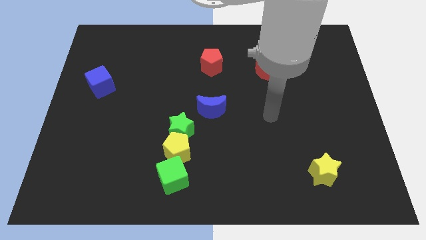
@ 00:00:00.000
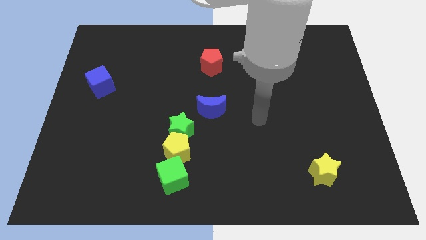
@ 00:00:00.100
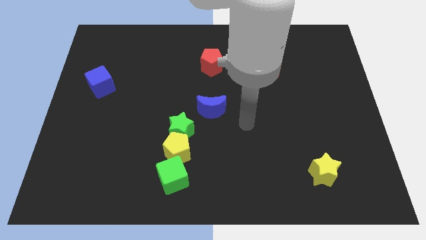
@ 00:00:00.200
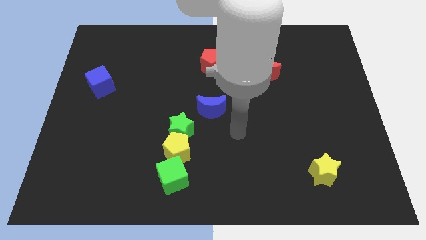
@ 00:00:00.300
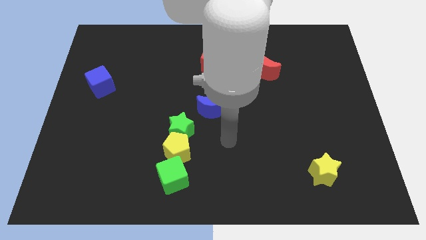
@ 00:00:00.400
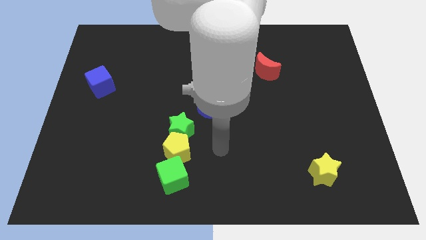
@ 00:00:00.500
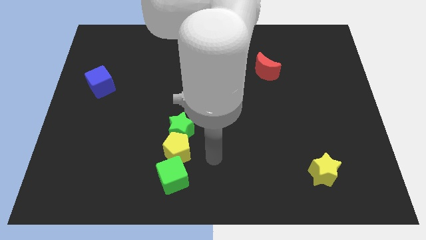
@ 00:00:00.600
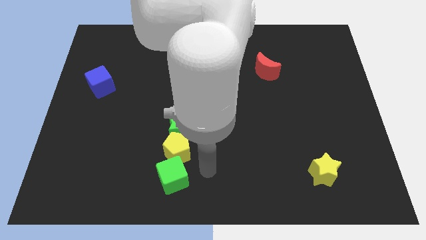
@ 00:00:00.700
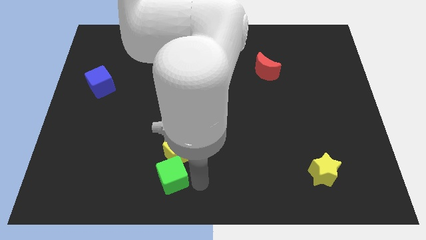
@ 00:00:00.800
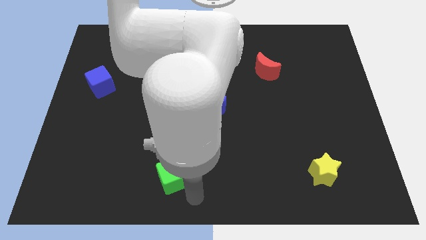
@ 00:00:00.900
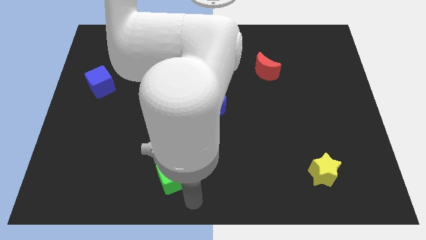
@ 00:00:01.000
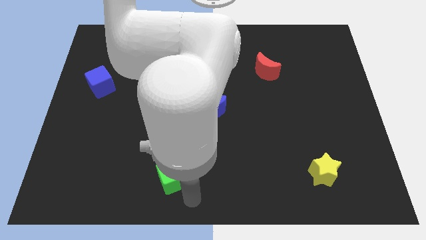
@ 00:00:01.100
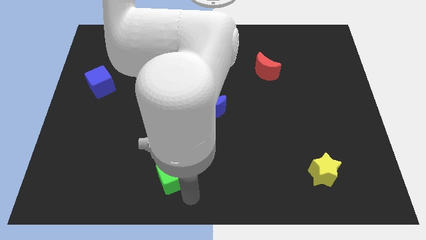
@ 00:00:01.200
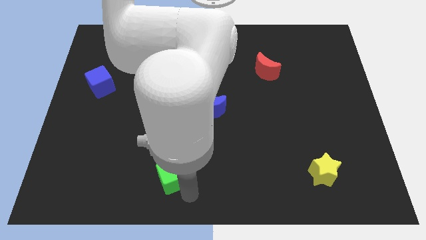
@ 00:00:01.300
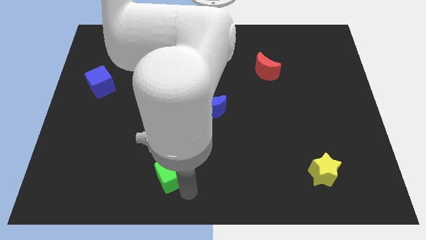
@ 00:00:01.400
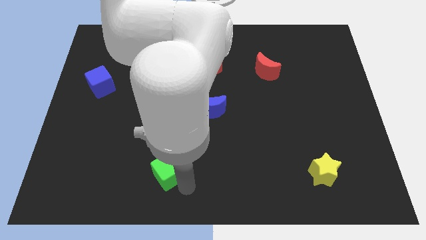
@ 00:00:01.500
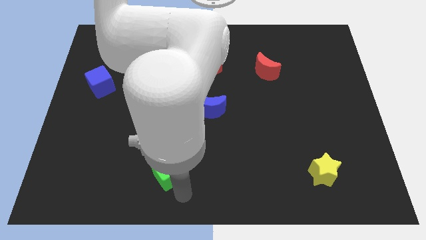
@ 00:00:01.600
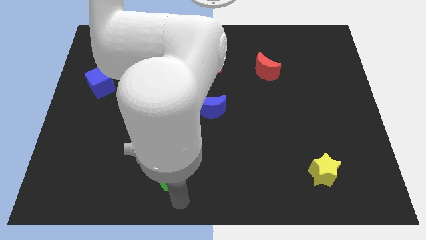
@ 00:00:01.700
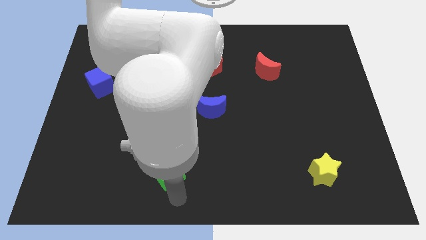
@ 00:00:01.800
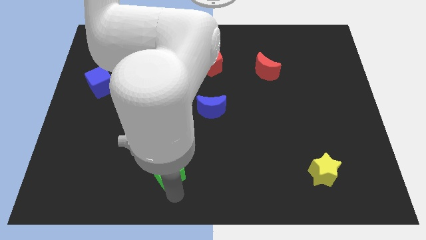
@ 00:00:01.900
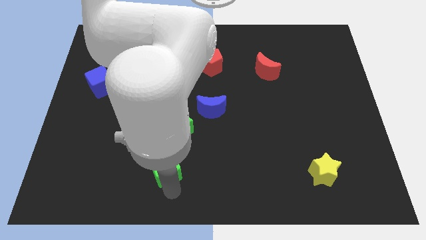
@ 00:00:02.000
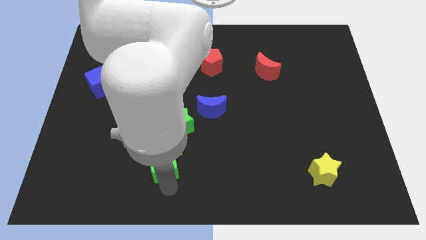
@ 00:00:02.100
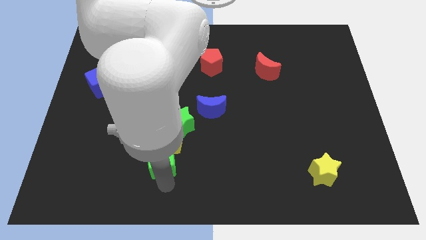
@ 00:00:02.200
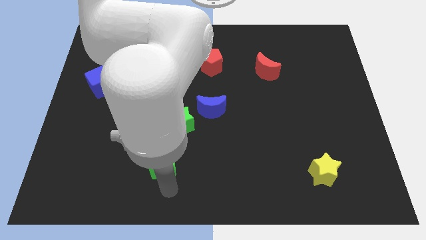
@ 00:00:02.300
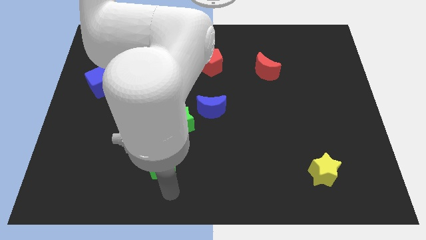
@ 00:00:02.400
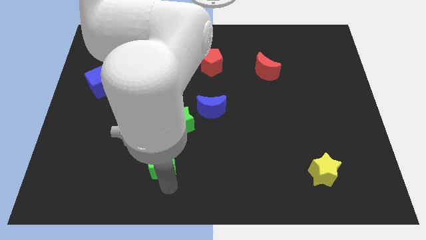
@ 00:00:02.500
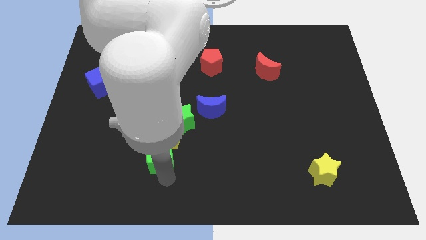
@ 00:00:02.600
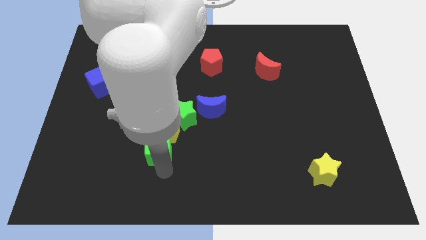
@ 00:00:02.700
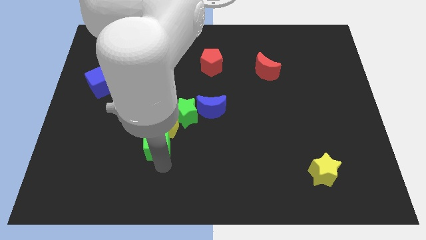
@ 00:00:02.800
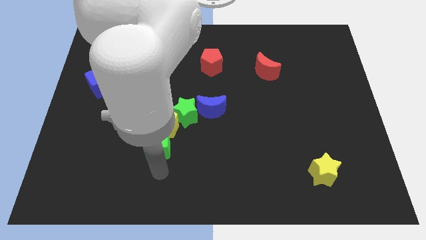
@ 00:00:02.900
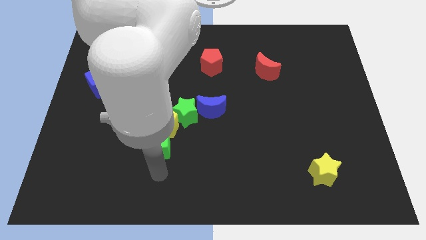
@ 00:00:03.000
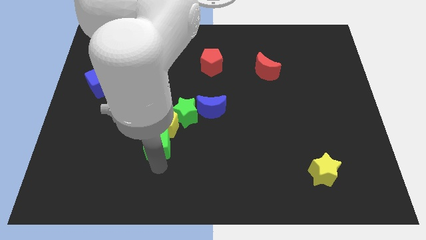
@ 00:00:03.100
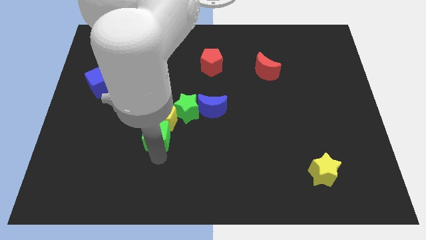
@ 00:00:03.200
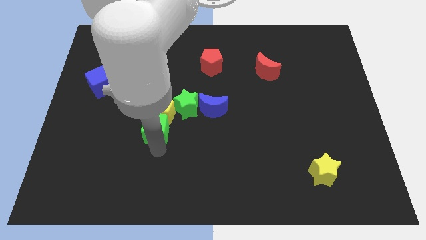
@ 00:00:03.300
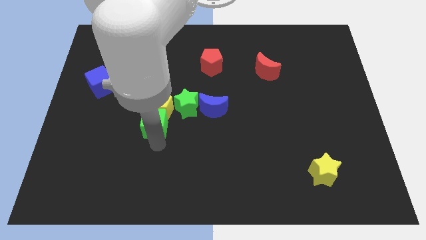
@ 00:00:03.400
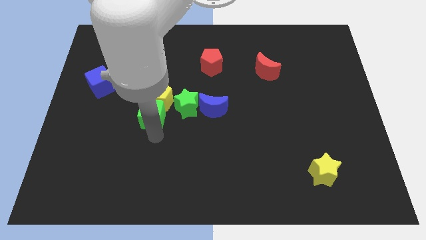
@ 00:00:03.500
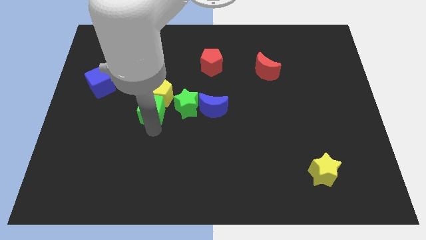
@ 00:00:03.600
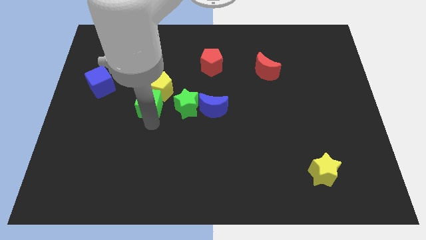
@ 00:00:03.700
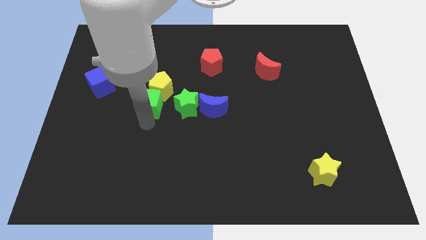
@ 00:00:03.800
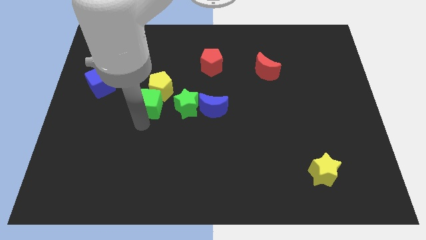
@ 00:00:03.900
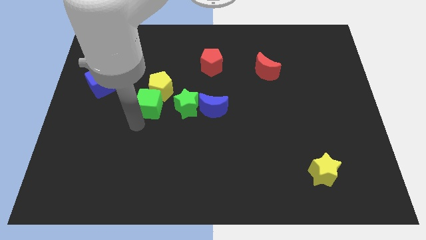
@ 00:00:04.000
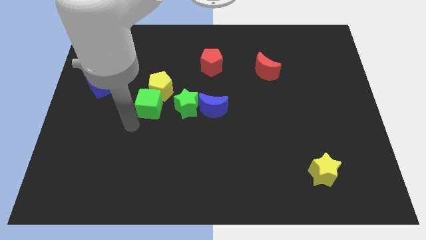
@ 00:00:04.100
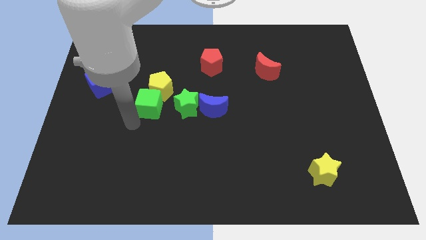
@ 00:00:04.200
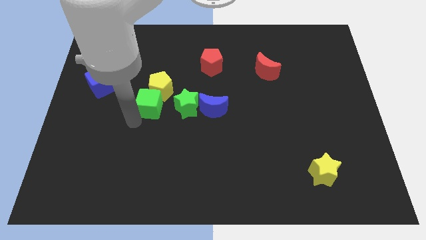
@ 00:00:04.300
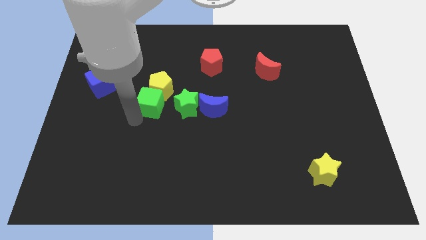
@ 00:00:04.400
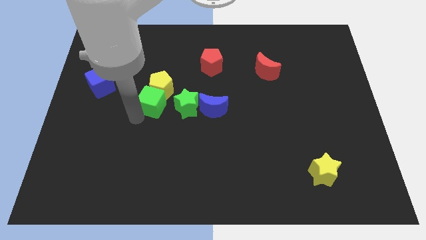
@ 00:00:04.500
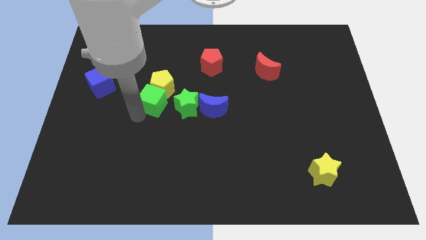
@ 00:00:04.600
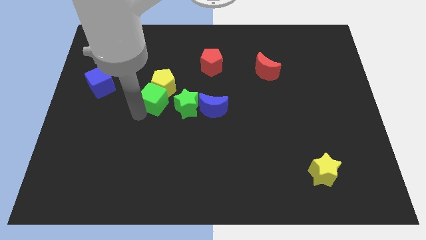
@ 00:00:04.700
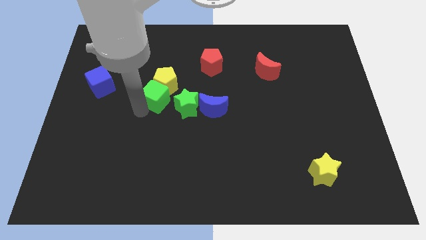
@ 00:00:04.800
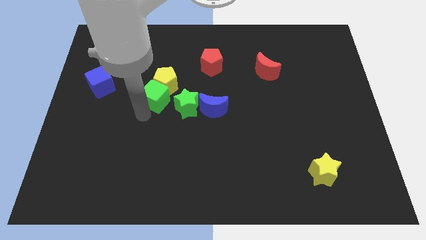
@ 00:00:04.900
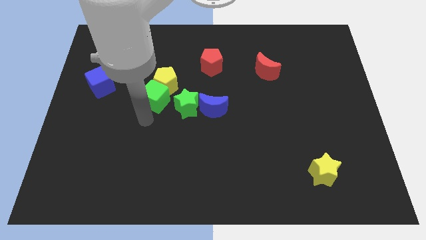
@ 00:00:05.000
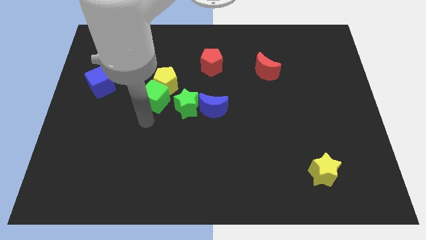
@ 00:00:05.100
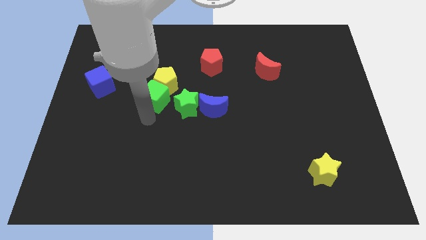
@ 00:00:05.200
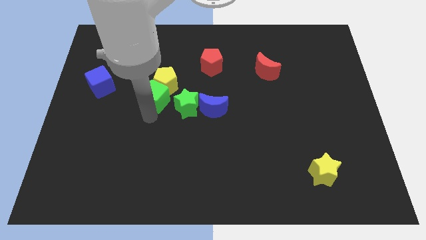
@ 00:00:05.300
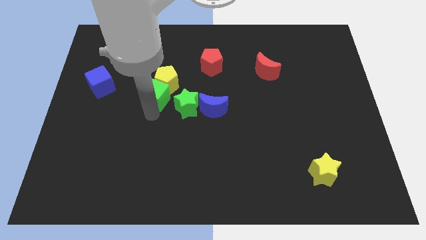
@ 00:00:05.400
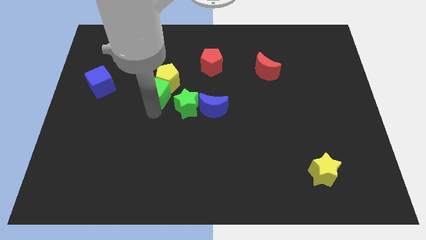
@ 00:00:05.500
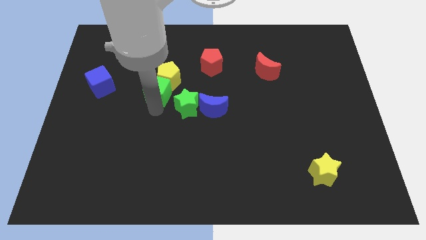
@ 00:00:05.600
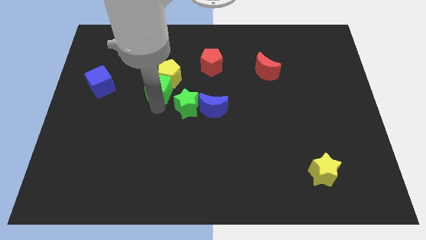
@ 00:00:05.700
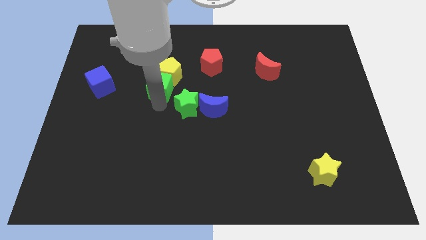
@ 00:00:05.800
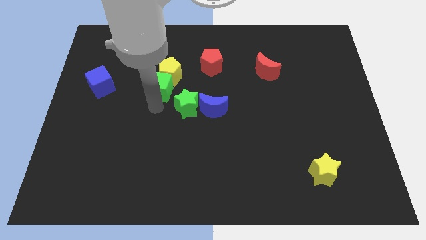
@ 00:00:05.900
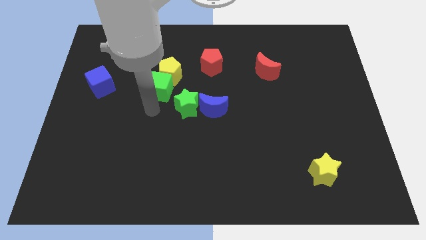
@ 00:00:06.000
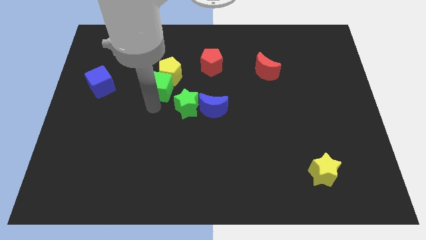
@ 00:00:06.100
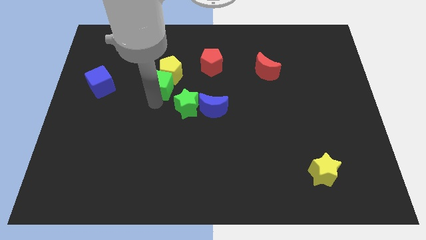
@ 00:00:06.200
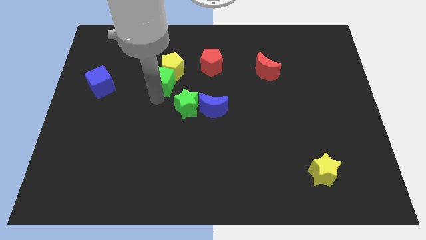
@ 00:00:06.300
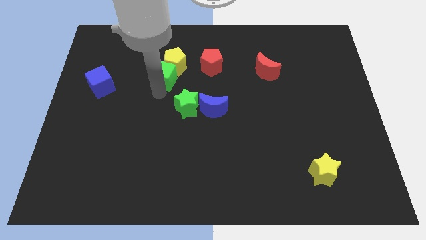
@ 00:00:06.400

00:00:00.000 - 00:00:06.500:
put the green cube just left of the red pentagon

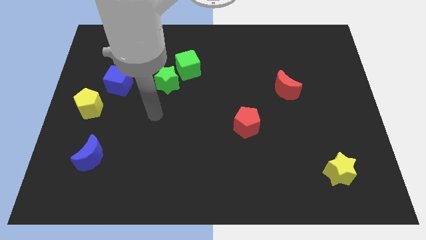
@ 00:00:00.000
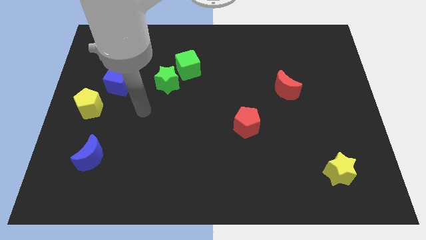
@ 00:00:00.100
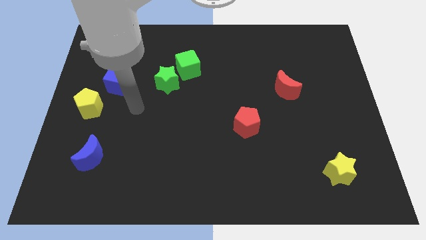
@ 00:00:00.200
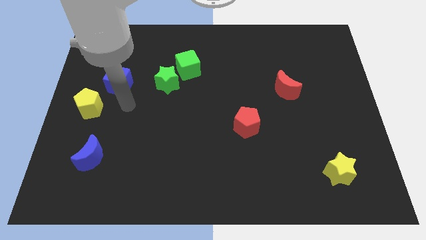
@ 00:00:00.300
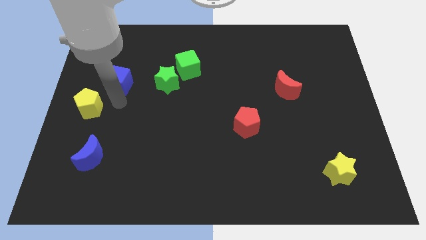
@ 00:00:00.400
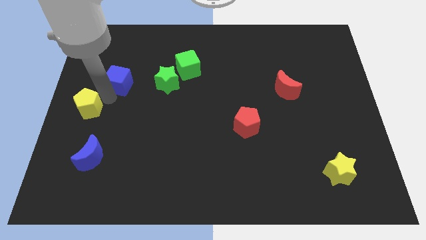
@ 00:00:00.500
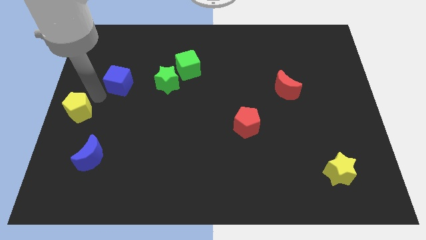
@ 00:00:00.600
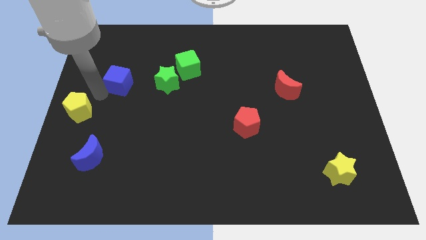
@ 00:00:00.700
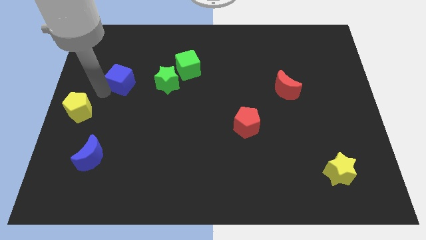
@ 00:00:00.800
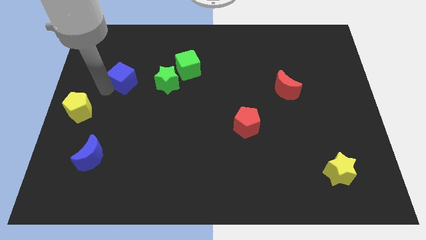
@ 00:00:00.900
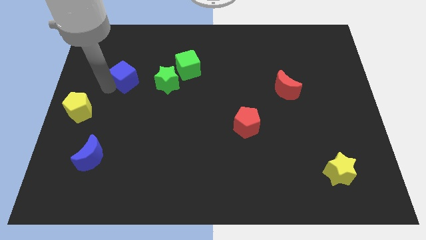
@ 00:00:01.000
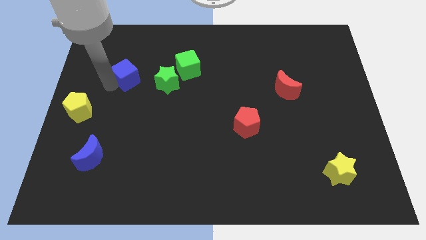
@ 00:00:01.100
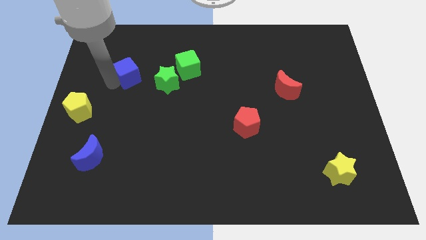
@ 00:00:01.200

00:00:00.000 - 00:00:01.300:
put the blue cube to the left of the green cube
